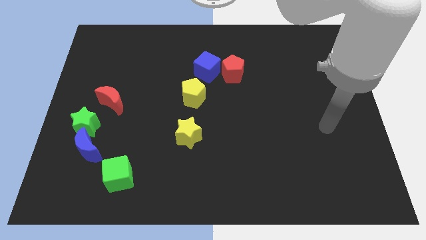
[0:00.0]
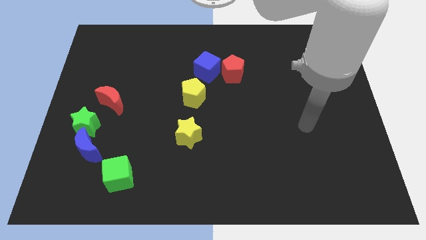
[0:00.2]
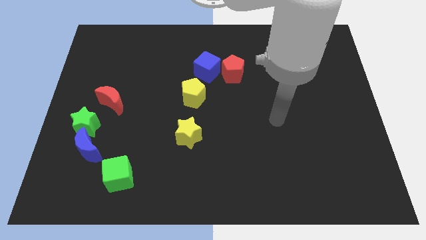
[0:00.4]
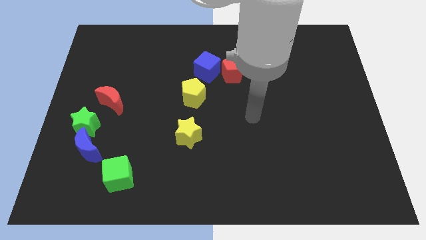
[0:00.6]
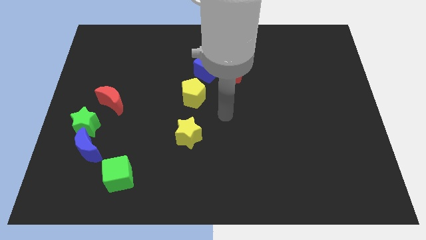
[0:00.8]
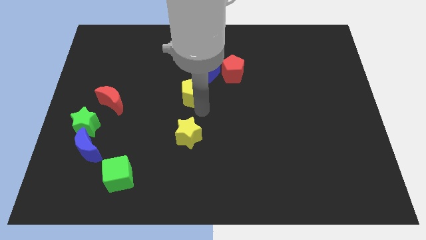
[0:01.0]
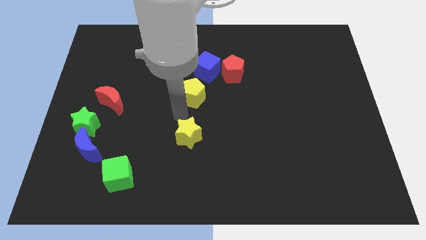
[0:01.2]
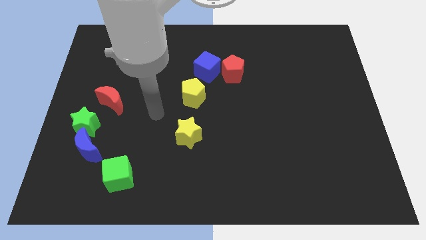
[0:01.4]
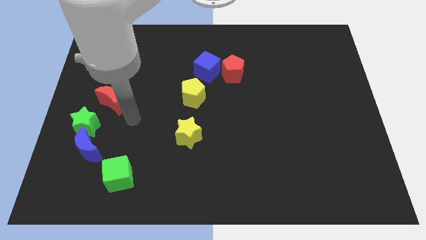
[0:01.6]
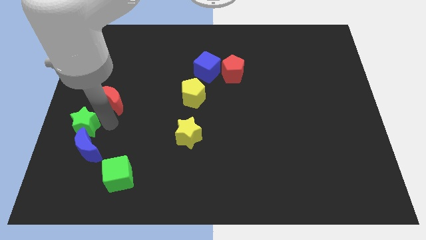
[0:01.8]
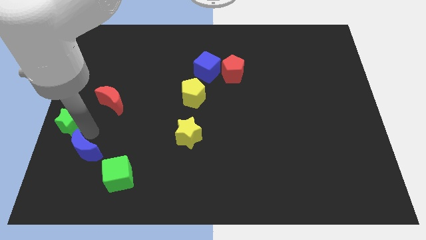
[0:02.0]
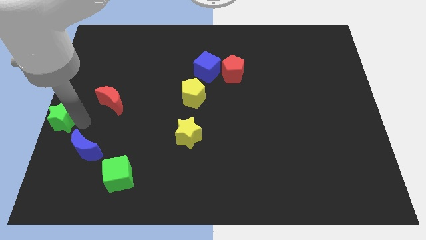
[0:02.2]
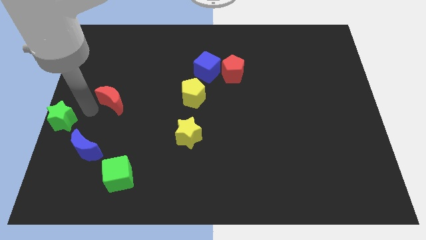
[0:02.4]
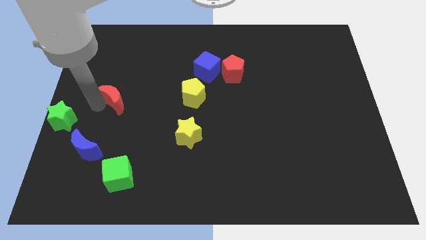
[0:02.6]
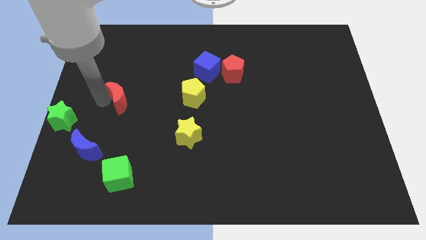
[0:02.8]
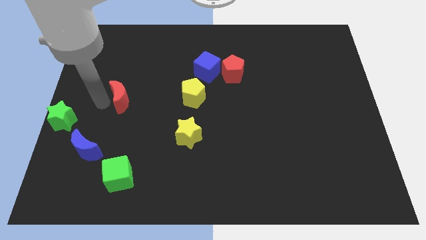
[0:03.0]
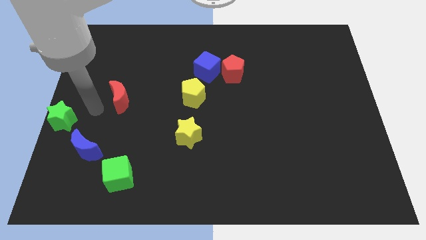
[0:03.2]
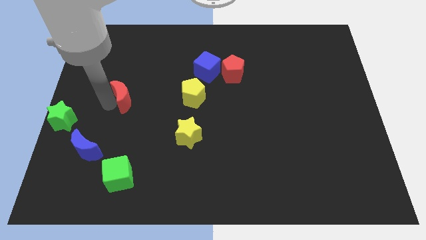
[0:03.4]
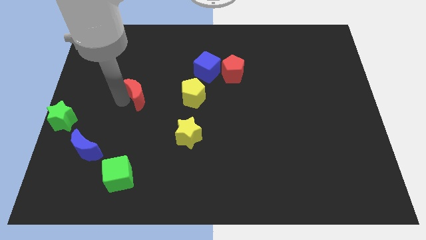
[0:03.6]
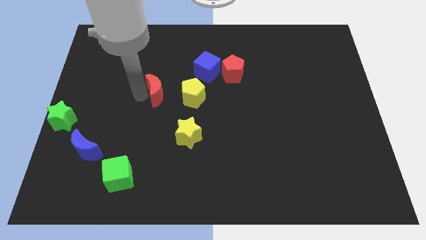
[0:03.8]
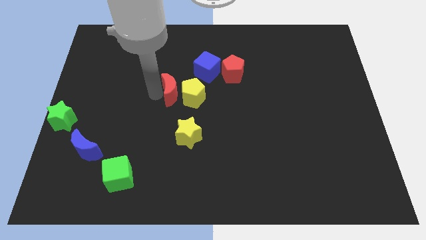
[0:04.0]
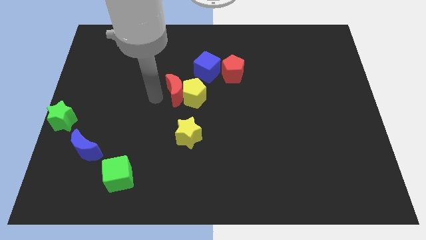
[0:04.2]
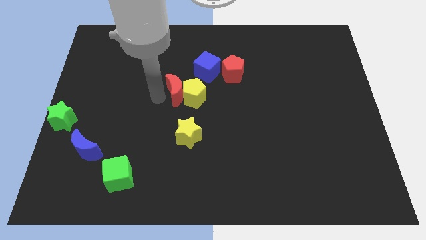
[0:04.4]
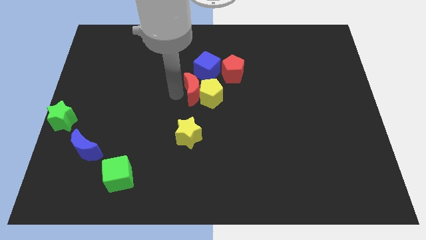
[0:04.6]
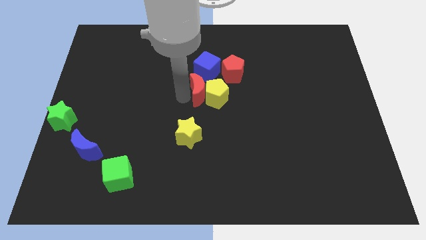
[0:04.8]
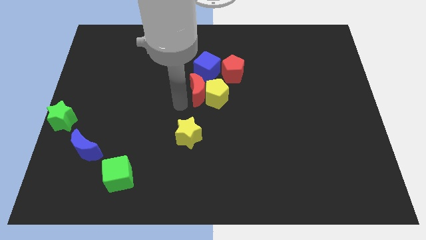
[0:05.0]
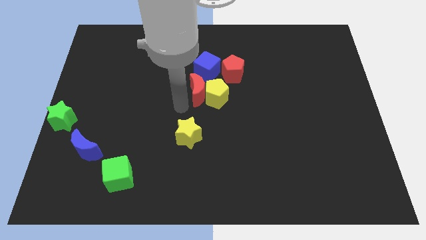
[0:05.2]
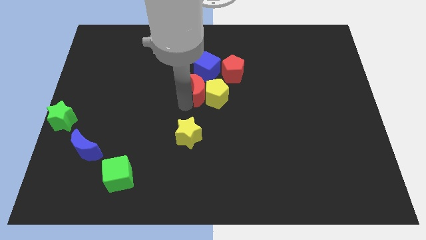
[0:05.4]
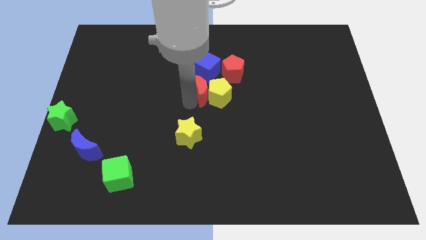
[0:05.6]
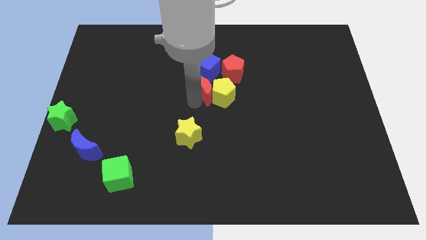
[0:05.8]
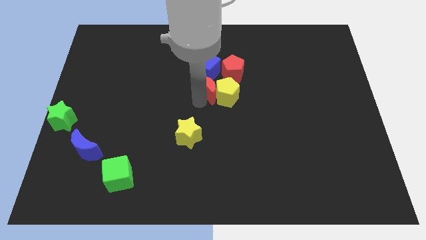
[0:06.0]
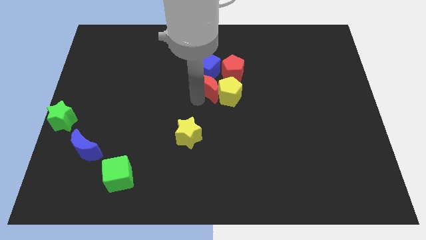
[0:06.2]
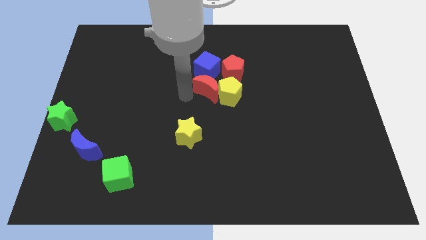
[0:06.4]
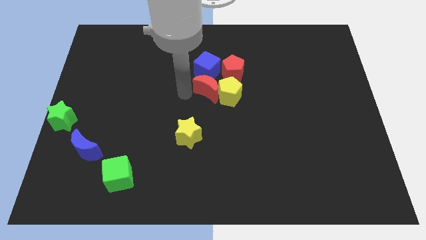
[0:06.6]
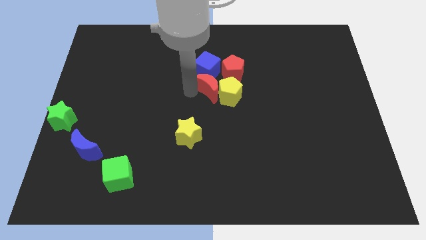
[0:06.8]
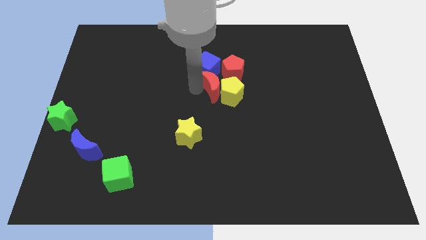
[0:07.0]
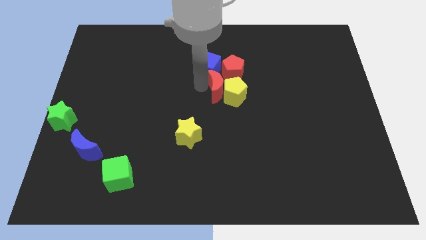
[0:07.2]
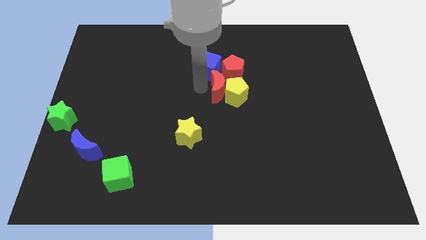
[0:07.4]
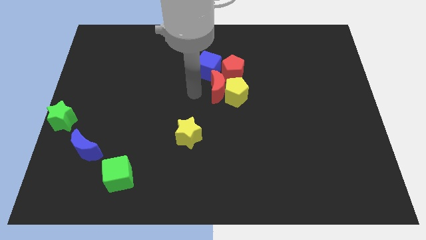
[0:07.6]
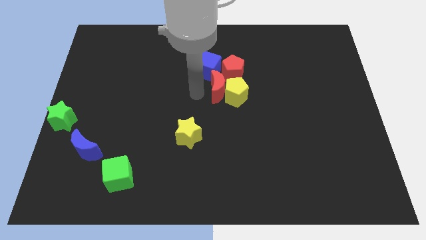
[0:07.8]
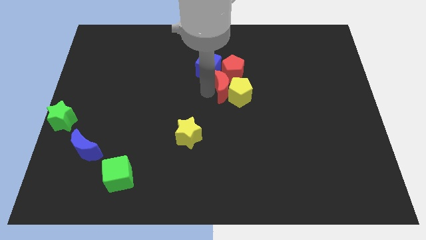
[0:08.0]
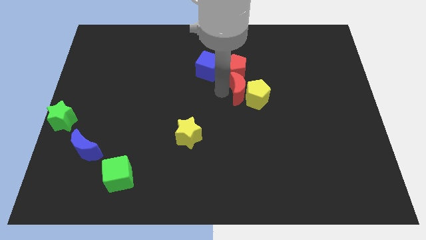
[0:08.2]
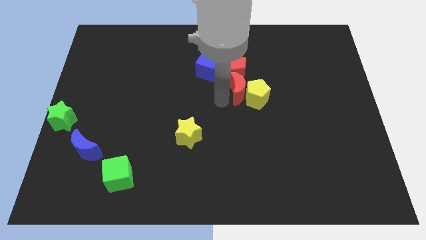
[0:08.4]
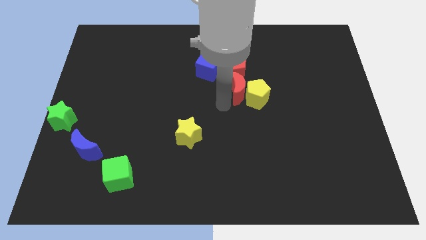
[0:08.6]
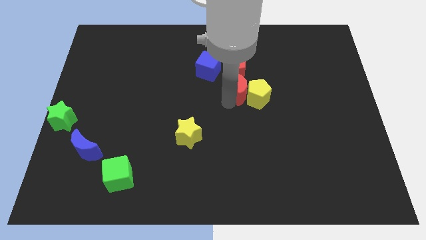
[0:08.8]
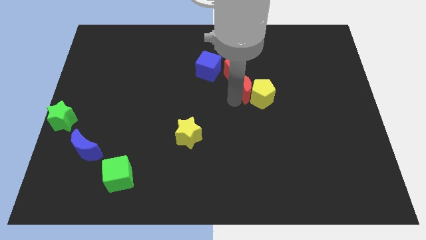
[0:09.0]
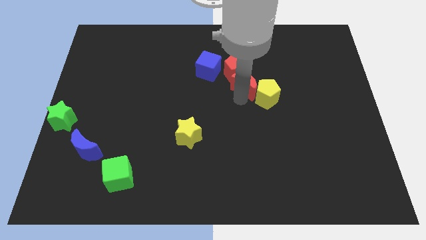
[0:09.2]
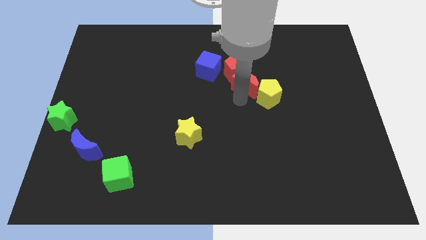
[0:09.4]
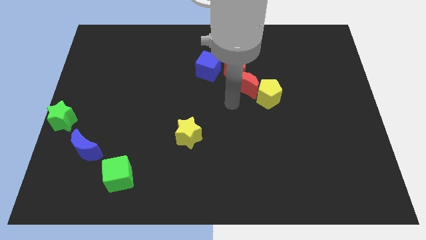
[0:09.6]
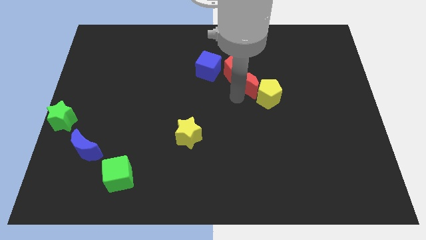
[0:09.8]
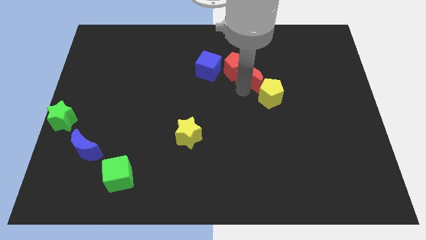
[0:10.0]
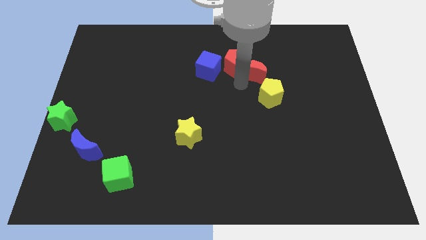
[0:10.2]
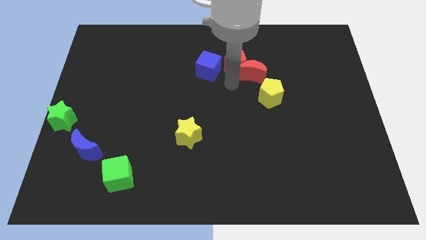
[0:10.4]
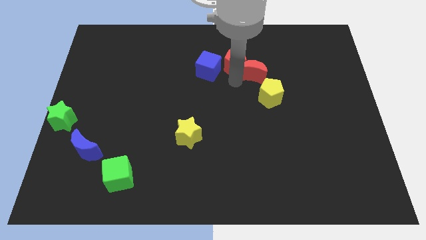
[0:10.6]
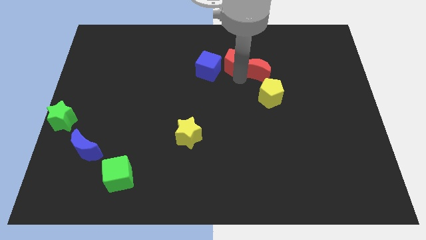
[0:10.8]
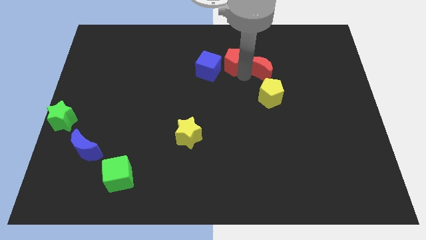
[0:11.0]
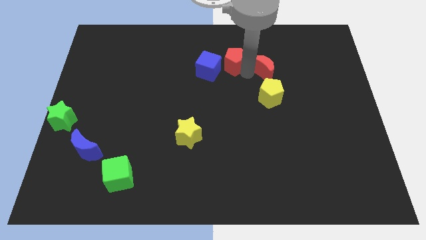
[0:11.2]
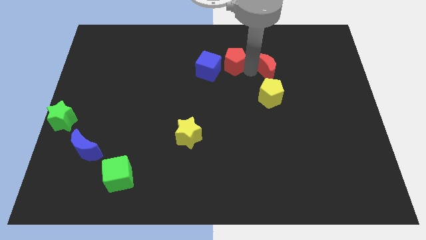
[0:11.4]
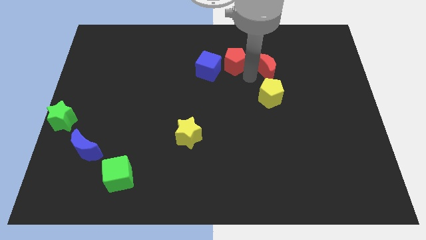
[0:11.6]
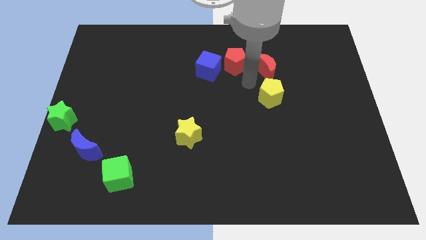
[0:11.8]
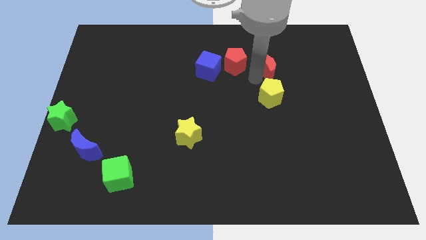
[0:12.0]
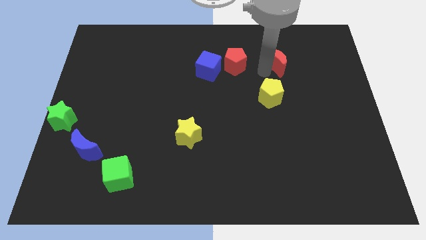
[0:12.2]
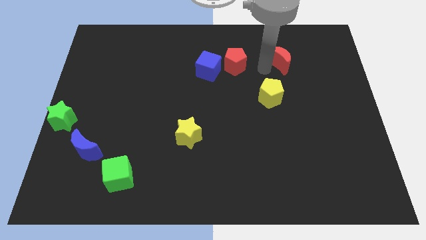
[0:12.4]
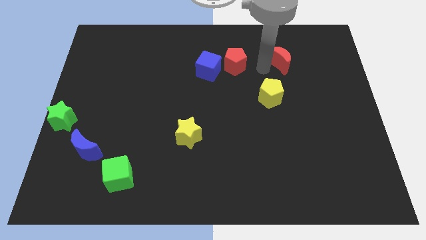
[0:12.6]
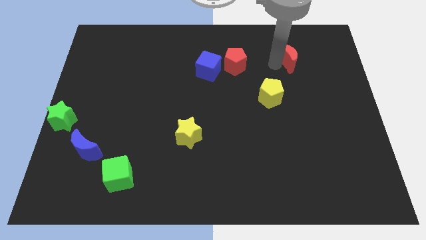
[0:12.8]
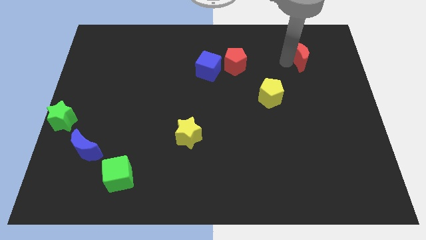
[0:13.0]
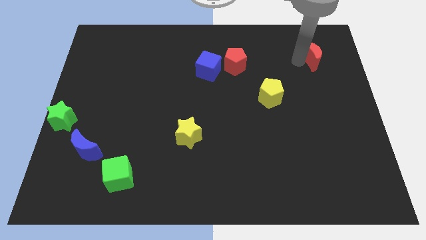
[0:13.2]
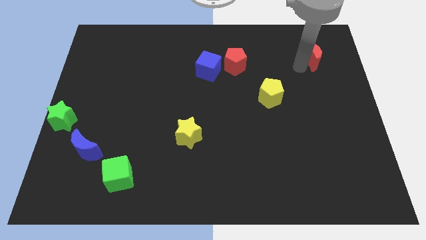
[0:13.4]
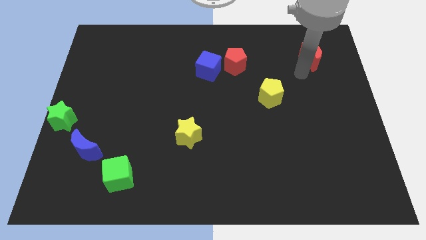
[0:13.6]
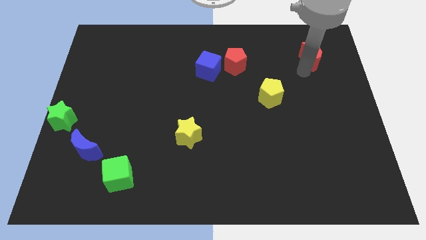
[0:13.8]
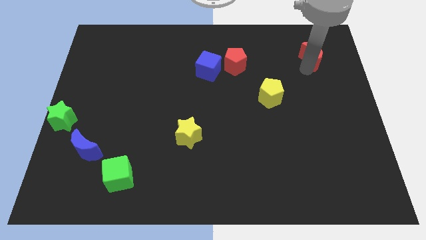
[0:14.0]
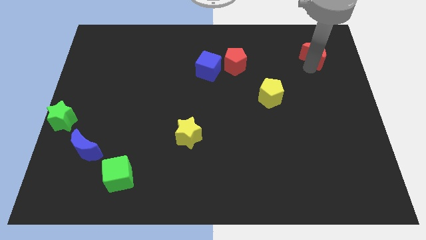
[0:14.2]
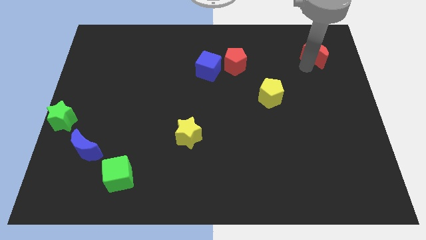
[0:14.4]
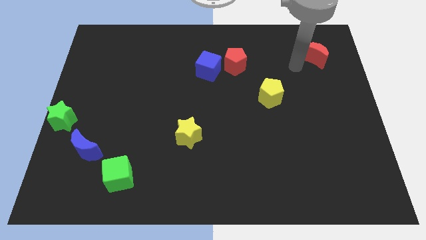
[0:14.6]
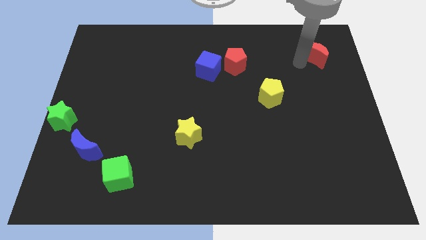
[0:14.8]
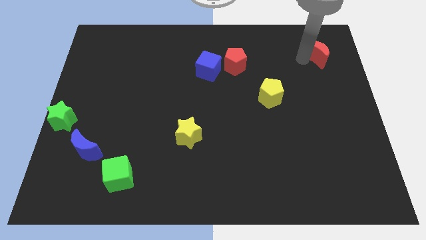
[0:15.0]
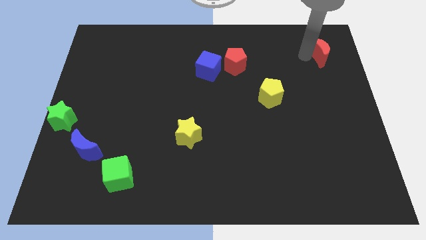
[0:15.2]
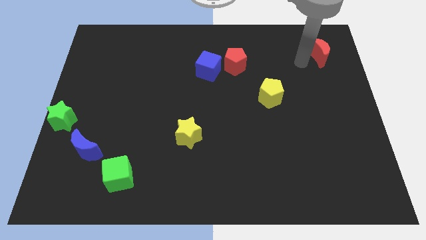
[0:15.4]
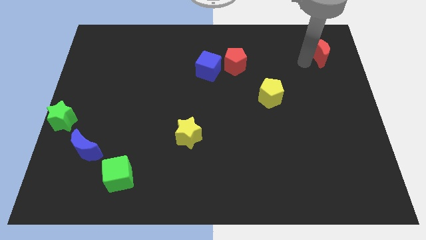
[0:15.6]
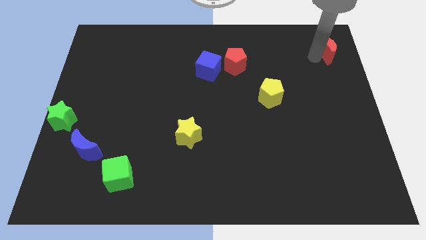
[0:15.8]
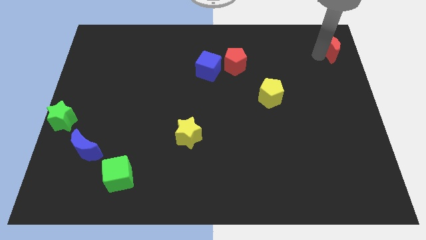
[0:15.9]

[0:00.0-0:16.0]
move the red moon to the top right corner
